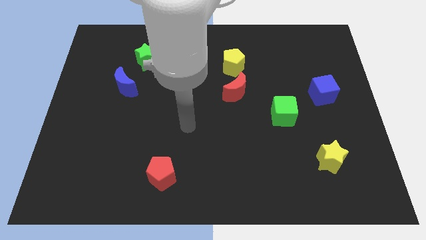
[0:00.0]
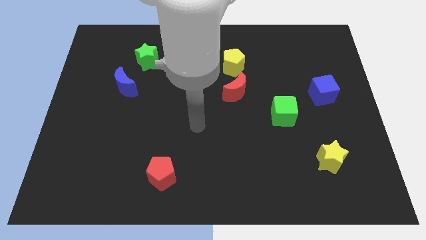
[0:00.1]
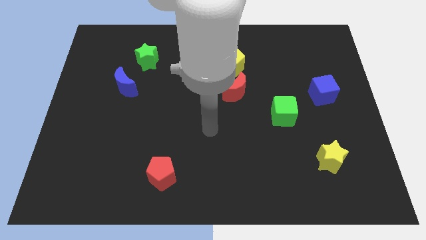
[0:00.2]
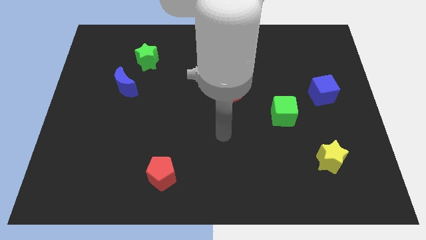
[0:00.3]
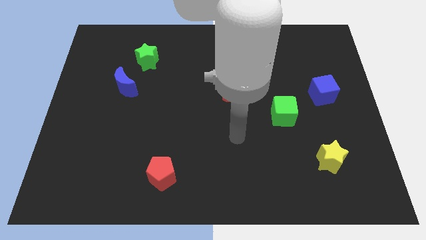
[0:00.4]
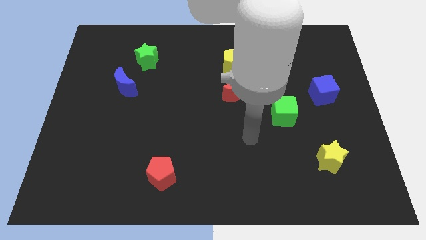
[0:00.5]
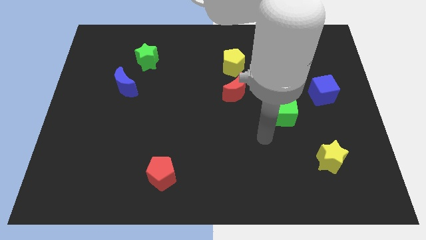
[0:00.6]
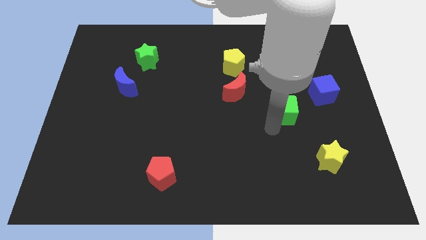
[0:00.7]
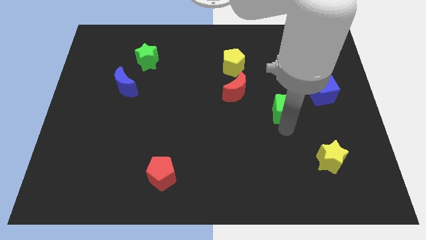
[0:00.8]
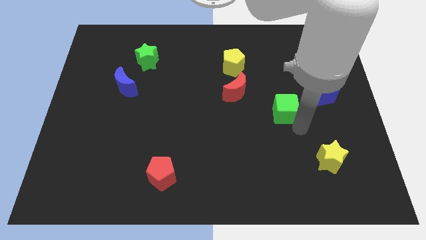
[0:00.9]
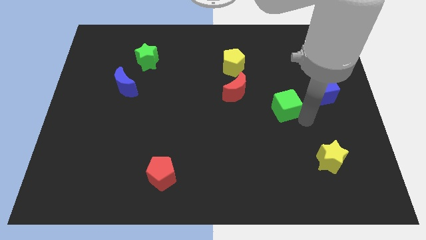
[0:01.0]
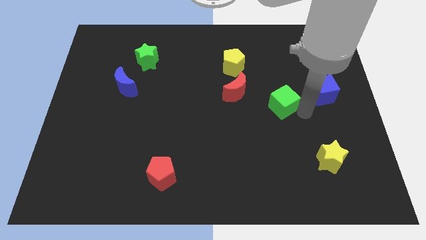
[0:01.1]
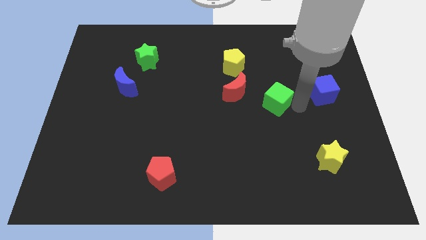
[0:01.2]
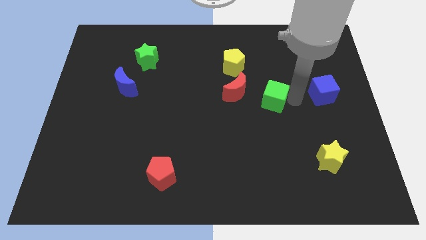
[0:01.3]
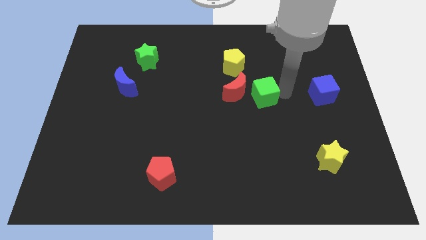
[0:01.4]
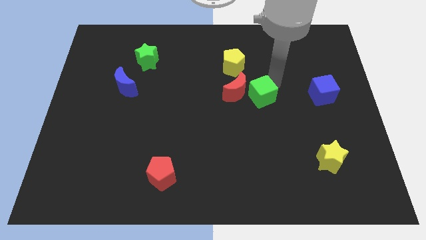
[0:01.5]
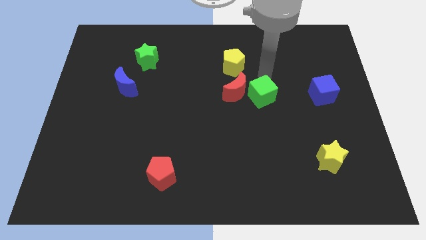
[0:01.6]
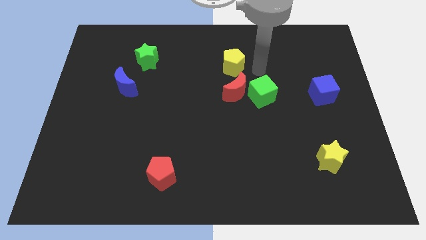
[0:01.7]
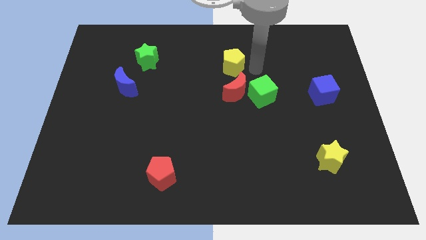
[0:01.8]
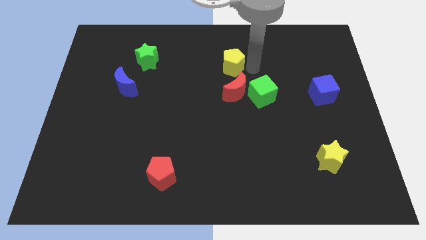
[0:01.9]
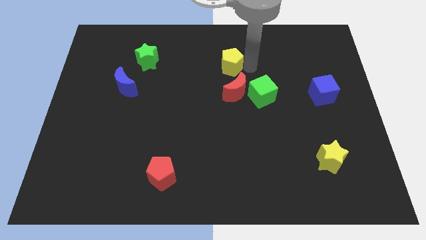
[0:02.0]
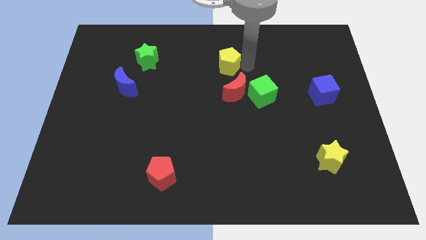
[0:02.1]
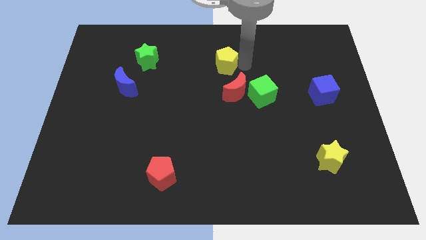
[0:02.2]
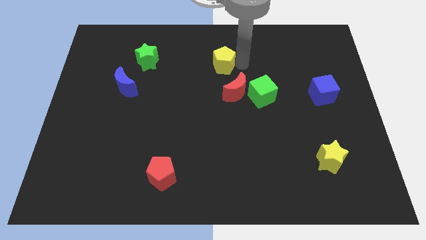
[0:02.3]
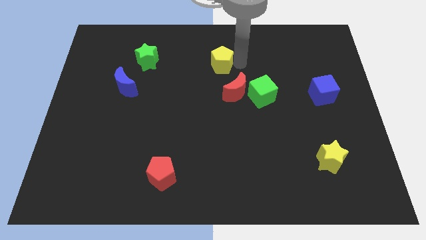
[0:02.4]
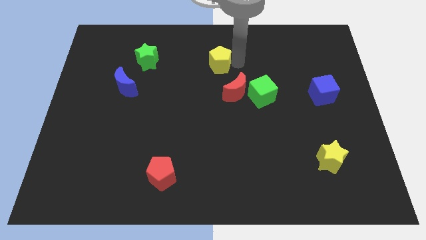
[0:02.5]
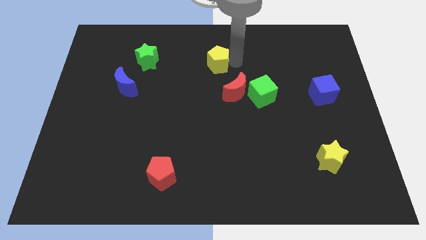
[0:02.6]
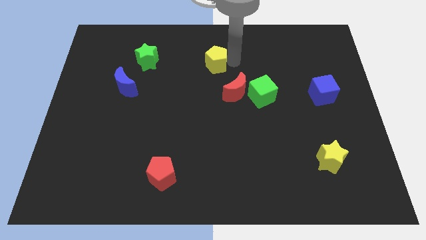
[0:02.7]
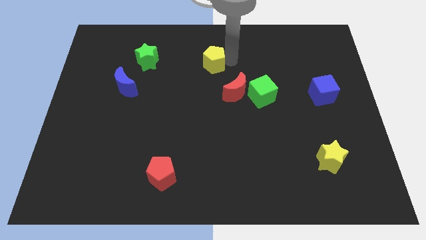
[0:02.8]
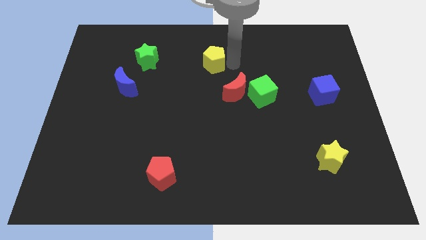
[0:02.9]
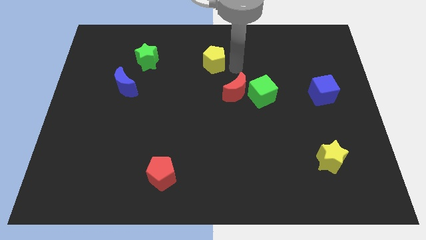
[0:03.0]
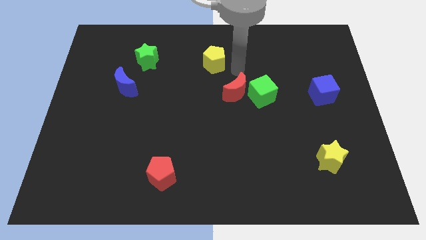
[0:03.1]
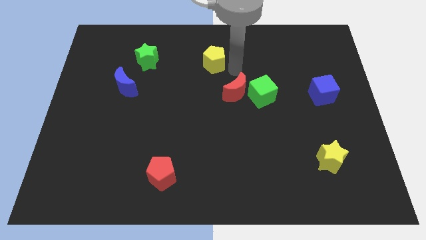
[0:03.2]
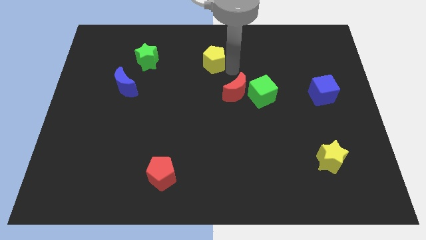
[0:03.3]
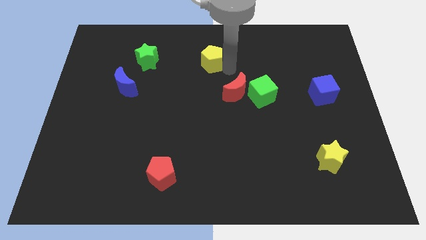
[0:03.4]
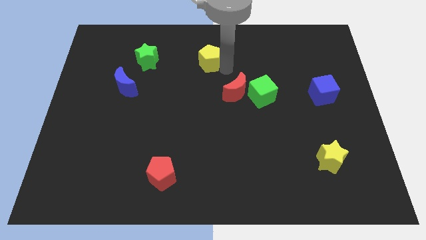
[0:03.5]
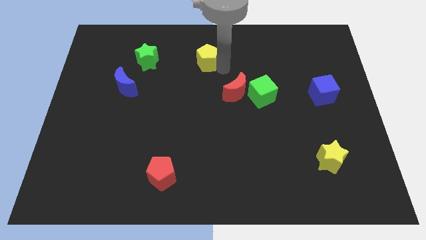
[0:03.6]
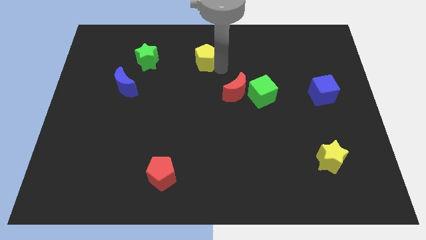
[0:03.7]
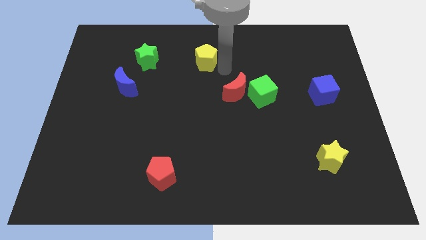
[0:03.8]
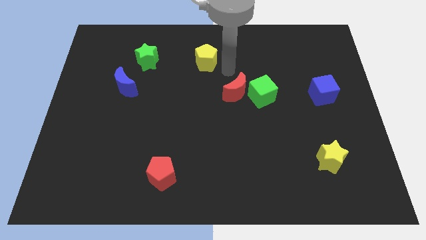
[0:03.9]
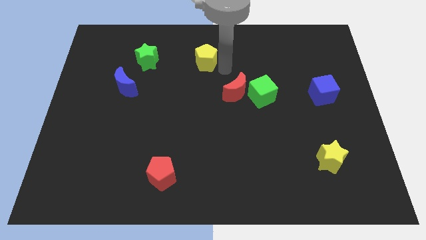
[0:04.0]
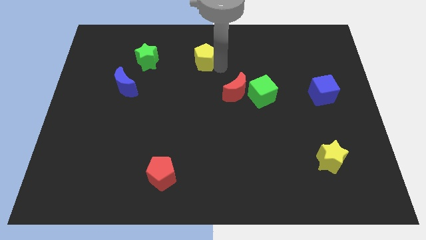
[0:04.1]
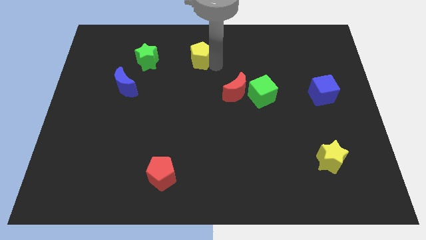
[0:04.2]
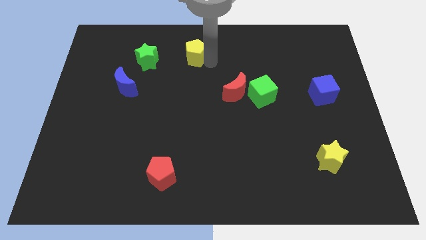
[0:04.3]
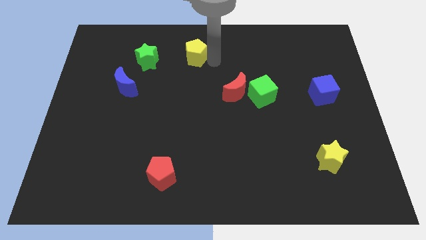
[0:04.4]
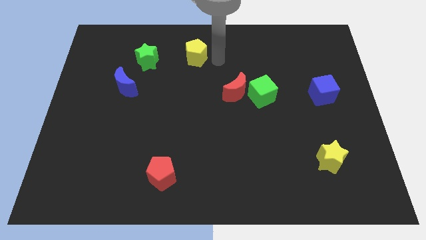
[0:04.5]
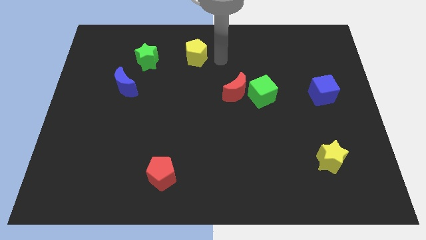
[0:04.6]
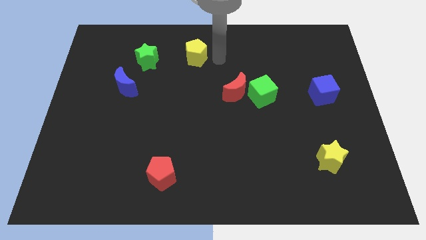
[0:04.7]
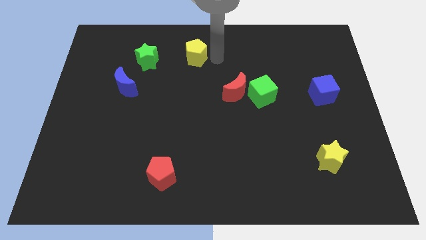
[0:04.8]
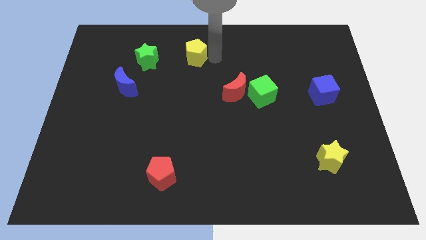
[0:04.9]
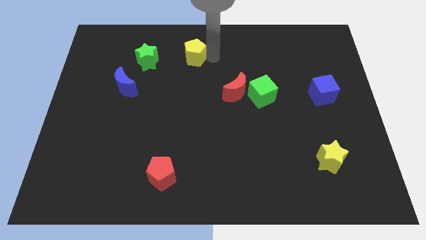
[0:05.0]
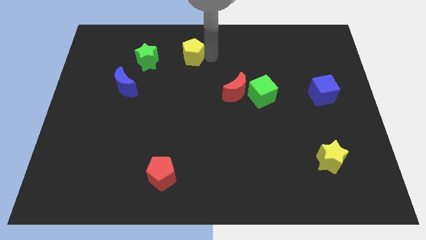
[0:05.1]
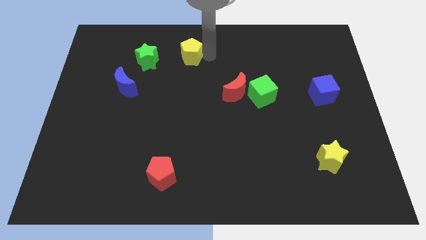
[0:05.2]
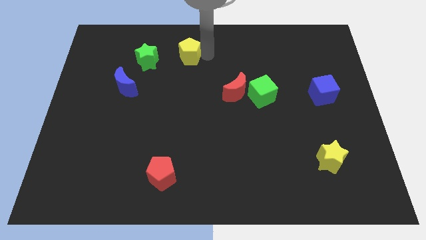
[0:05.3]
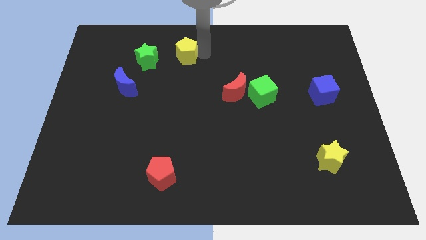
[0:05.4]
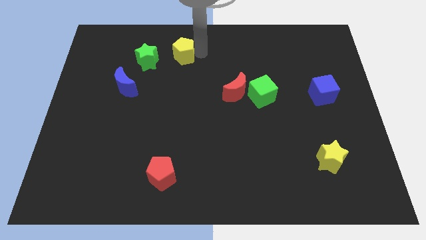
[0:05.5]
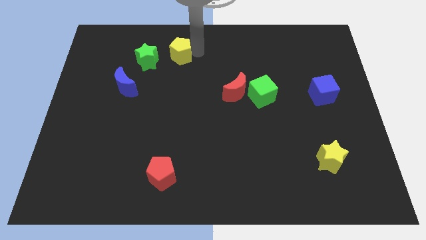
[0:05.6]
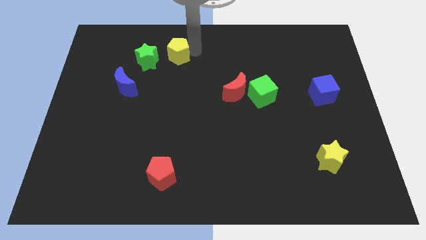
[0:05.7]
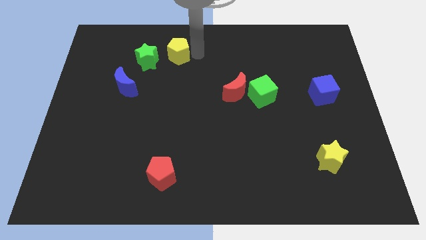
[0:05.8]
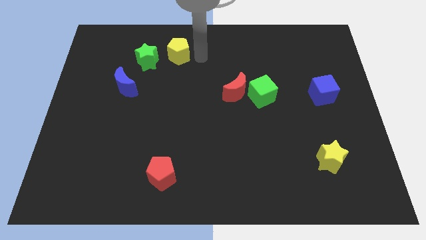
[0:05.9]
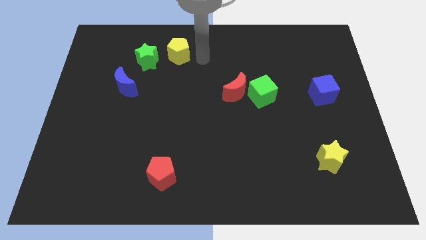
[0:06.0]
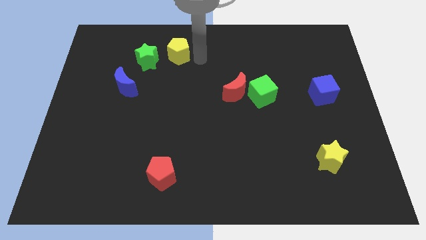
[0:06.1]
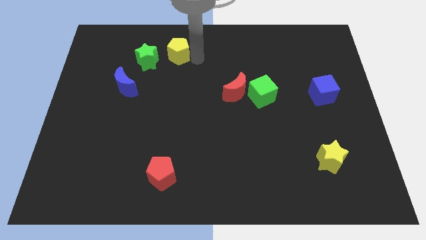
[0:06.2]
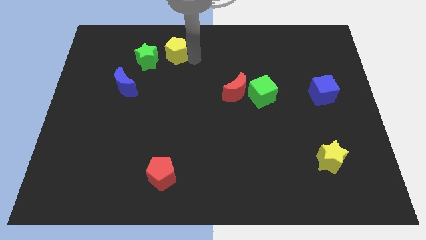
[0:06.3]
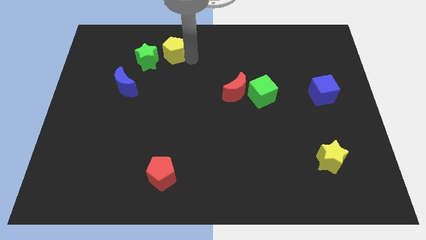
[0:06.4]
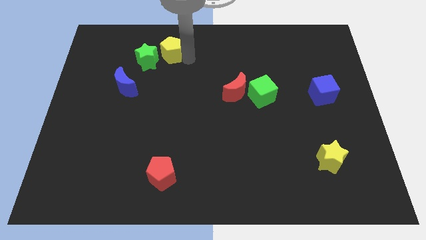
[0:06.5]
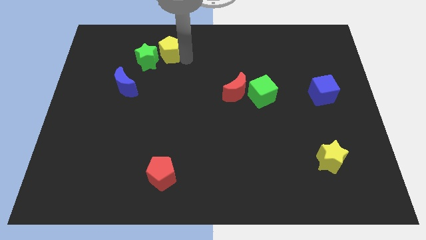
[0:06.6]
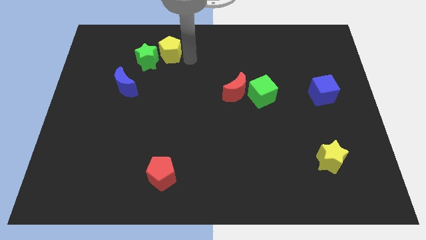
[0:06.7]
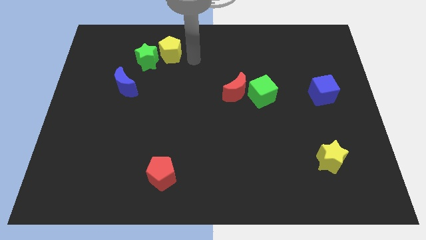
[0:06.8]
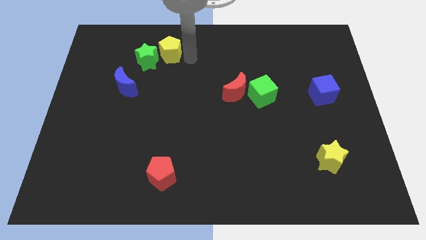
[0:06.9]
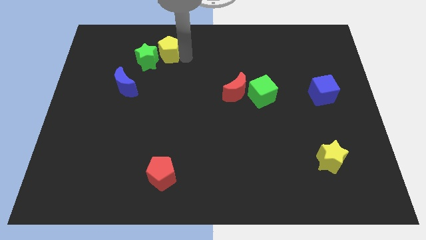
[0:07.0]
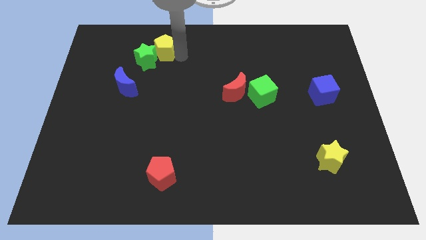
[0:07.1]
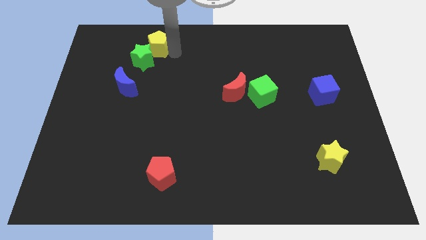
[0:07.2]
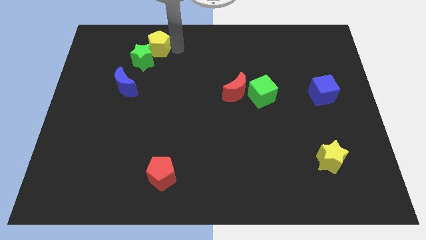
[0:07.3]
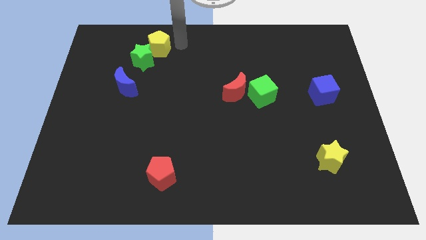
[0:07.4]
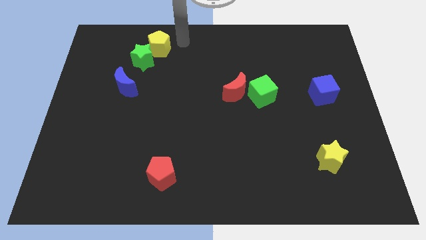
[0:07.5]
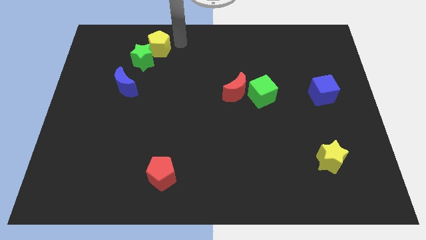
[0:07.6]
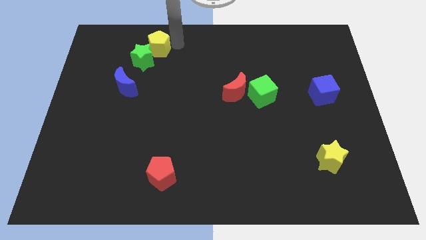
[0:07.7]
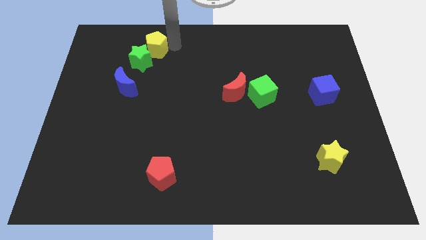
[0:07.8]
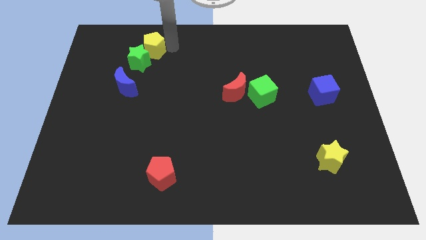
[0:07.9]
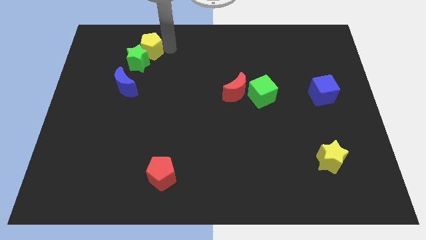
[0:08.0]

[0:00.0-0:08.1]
push the yellow pentagon left
